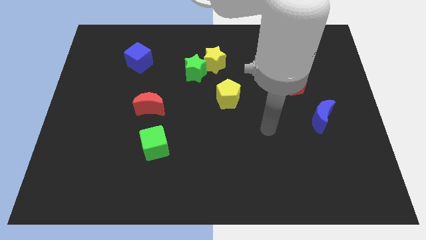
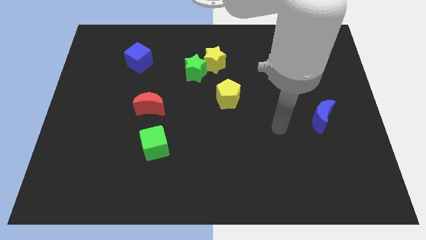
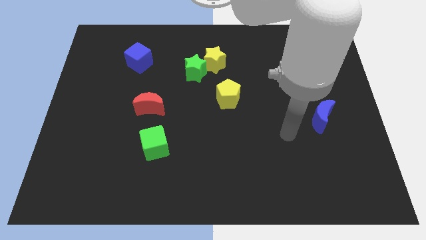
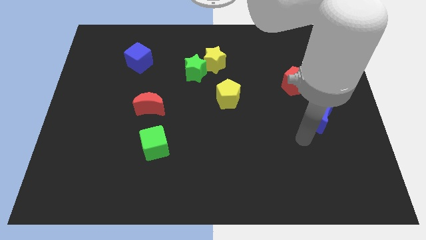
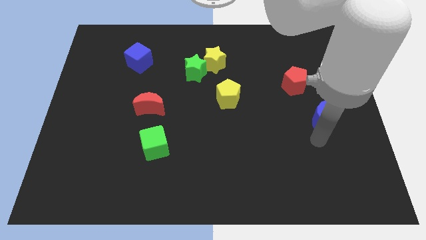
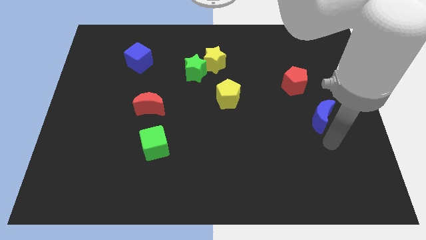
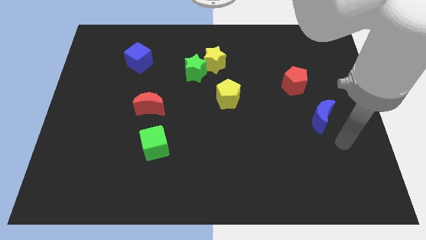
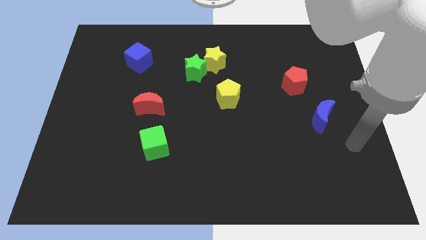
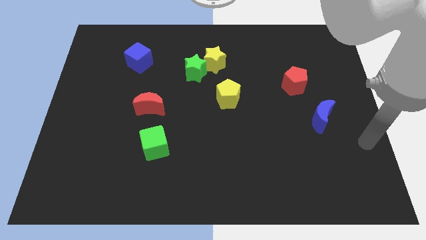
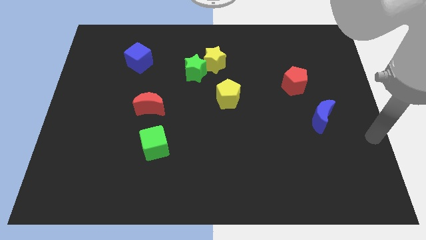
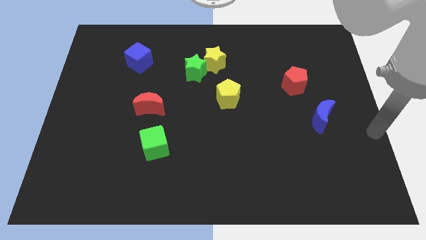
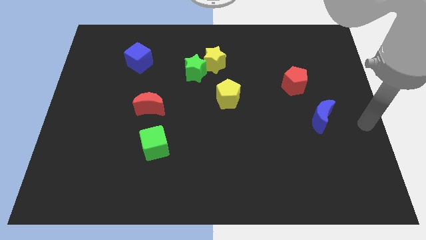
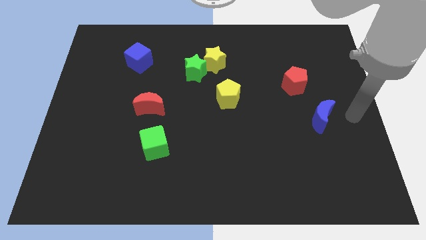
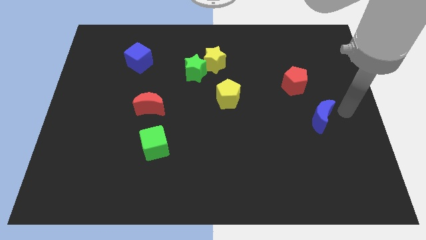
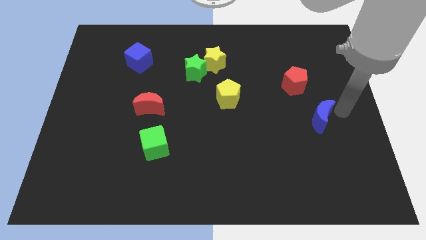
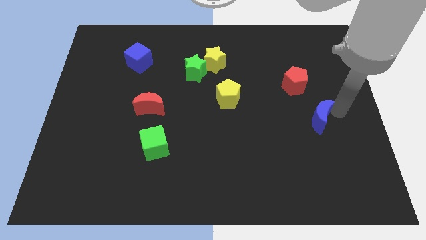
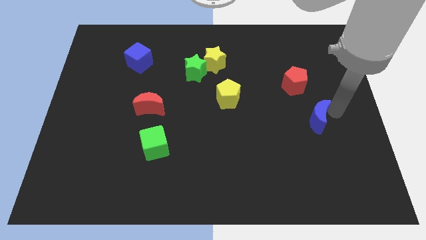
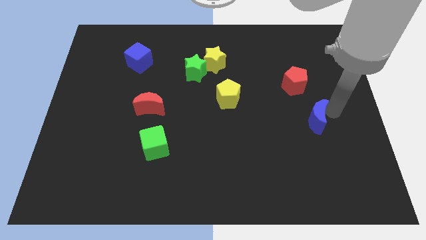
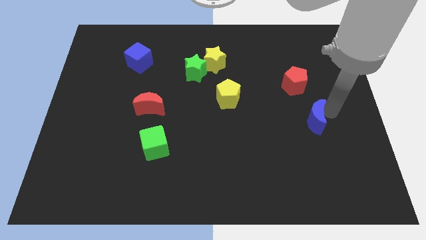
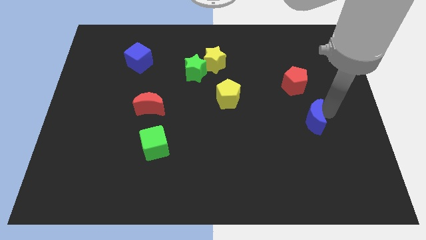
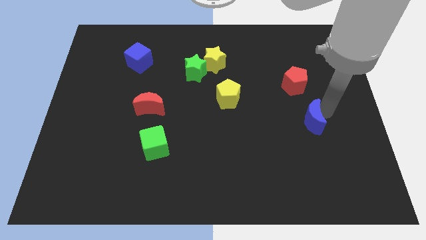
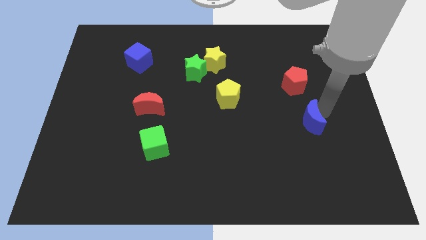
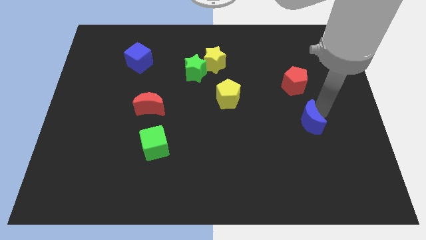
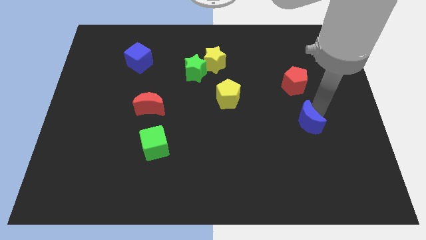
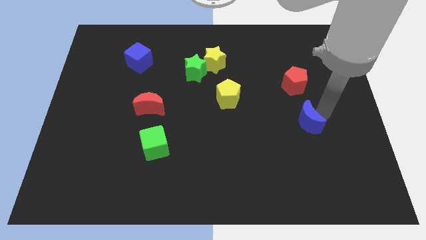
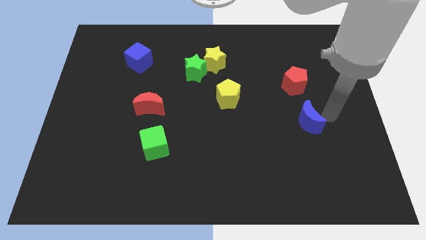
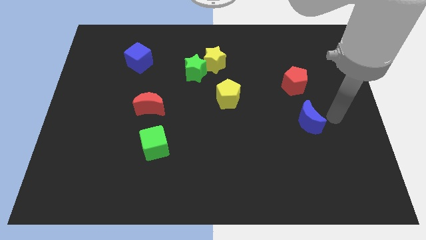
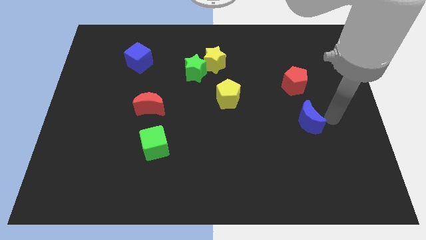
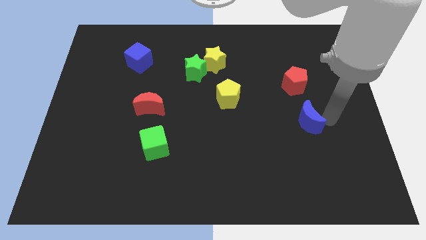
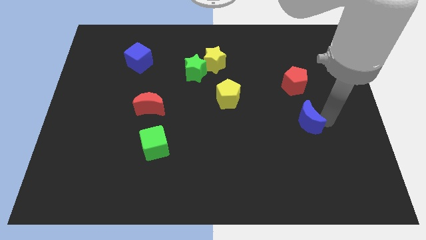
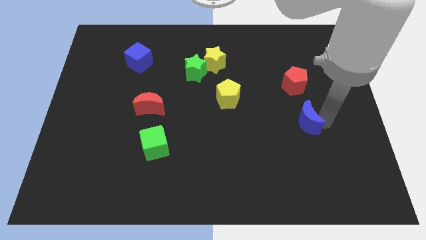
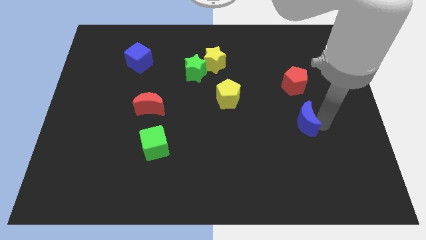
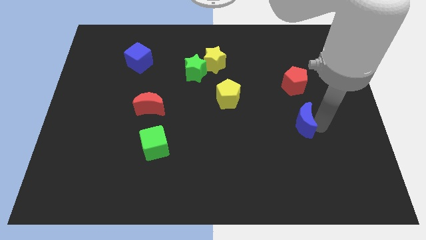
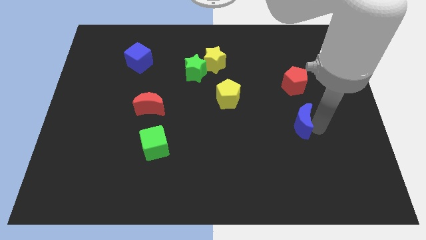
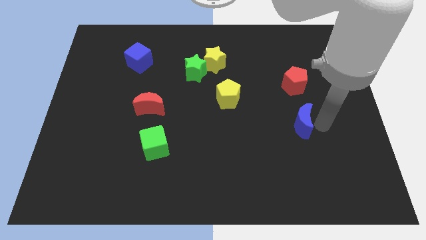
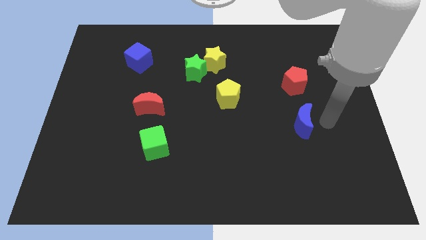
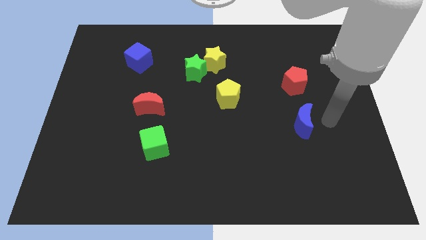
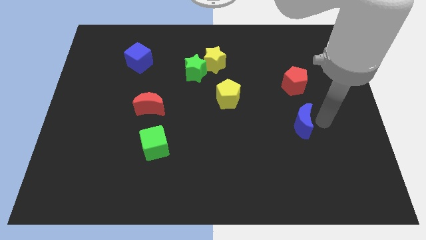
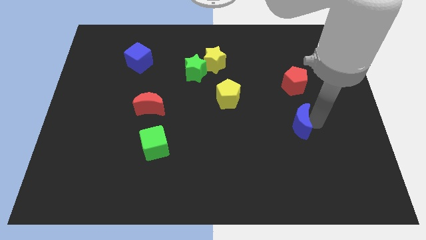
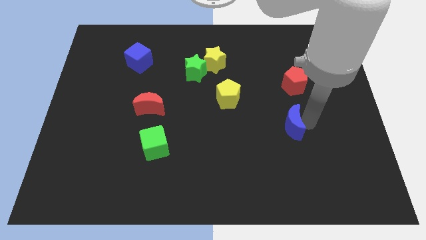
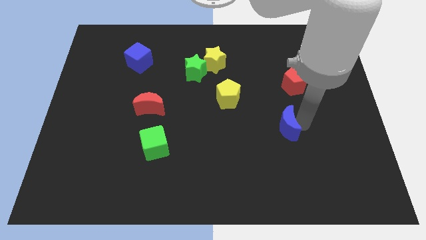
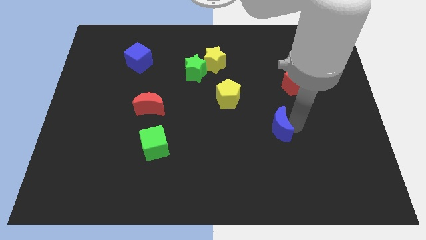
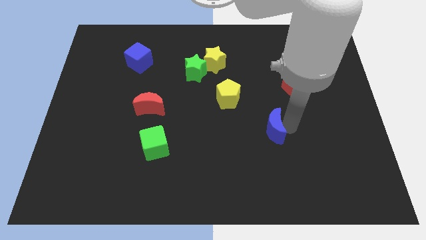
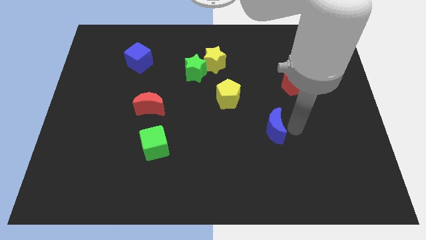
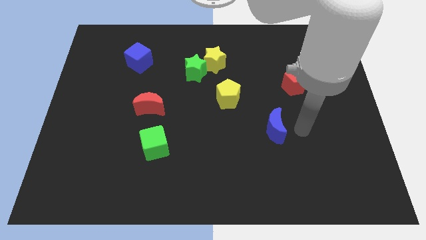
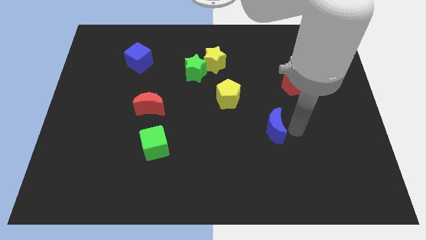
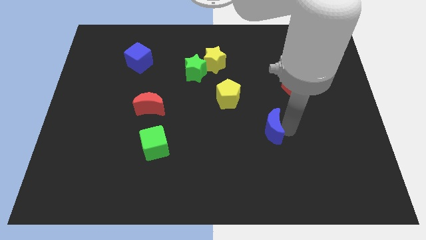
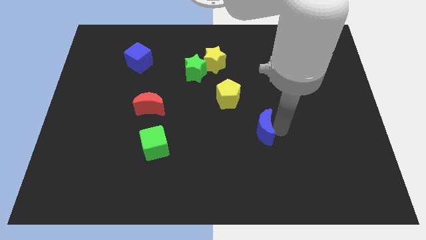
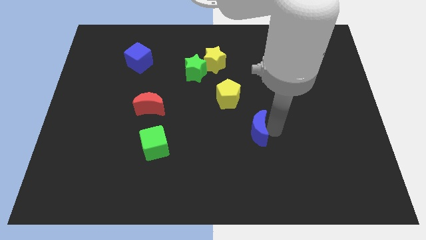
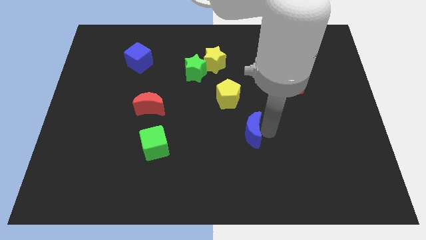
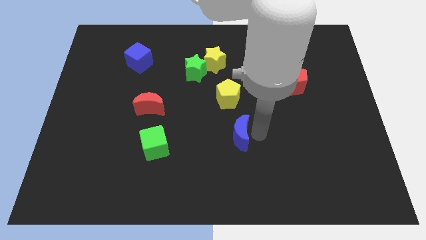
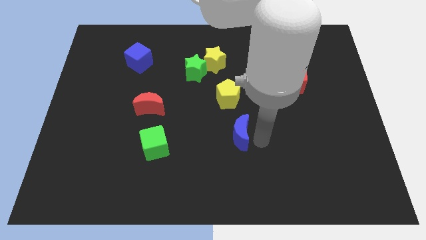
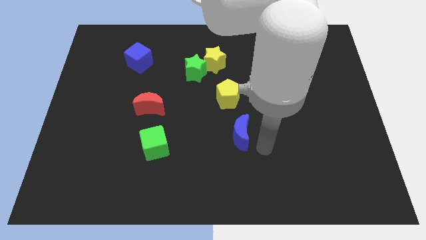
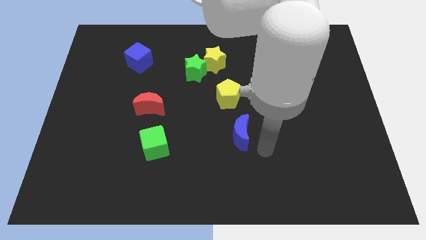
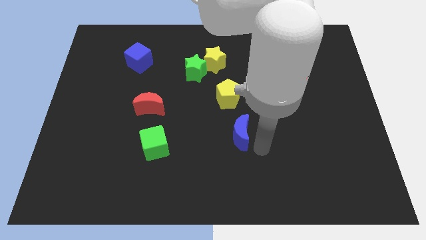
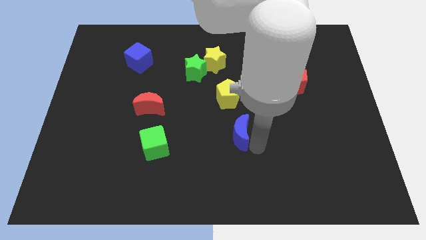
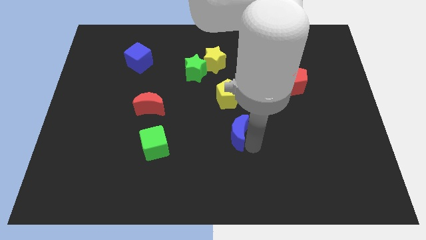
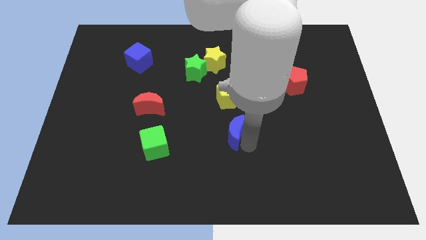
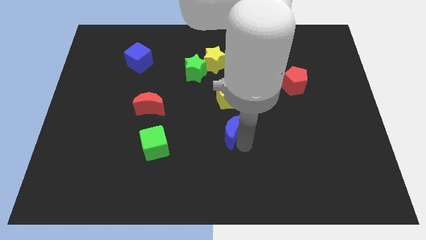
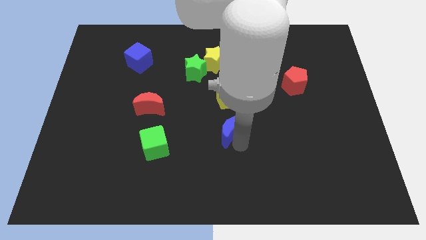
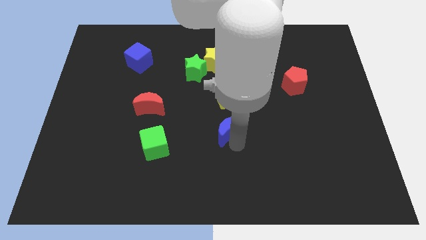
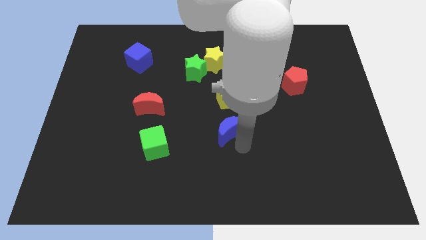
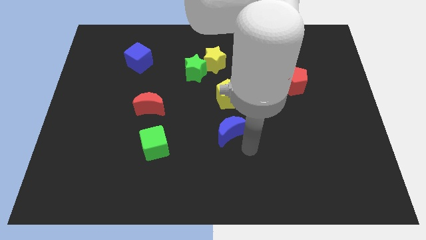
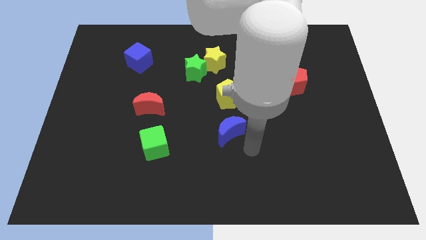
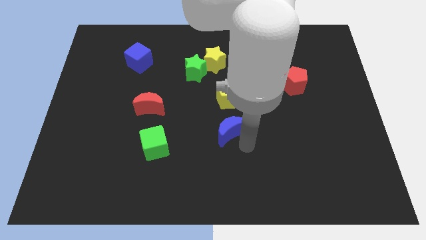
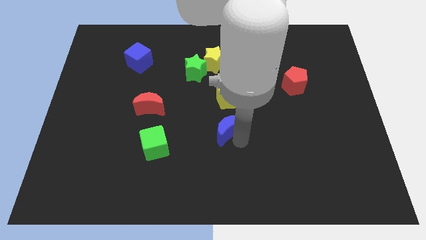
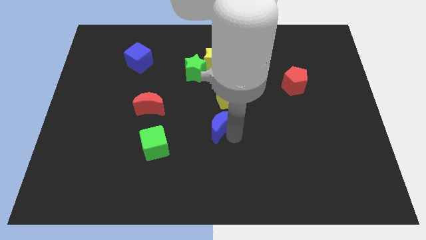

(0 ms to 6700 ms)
put the blue moon to the bottom left side of the yellow pentagon

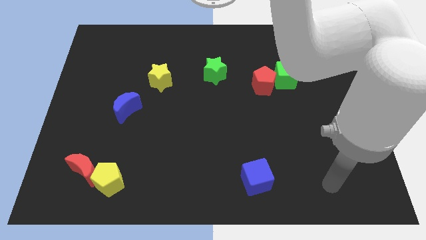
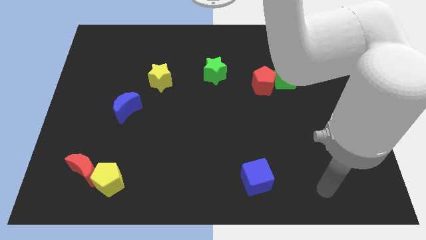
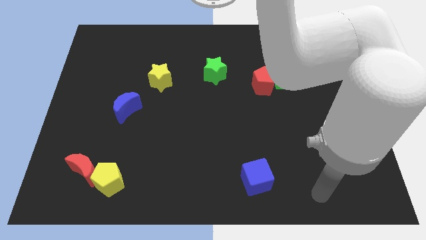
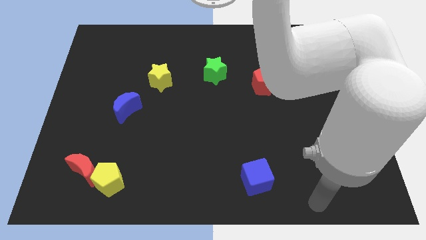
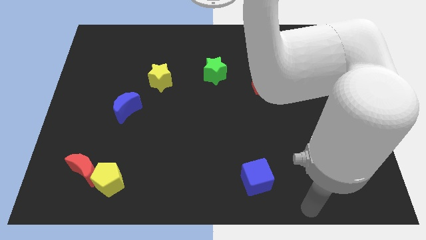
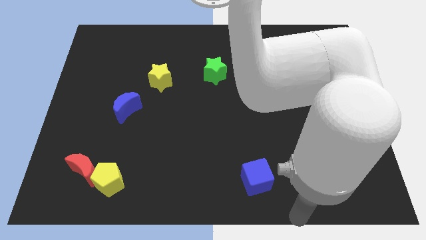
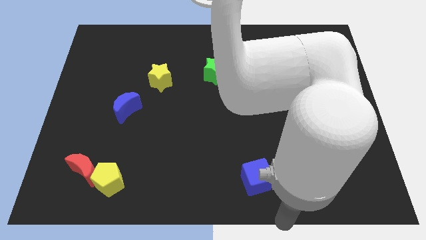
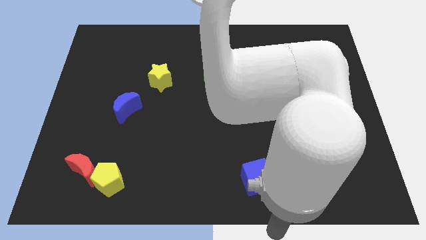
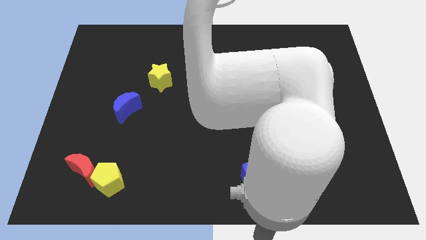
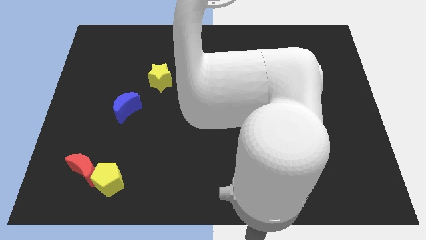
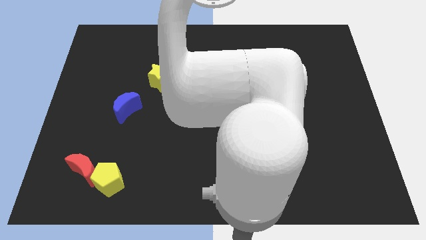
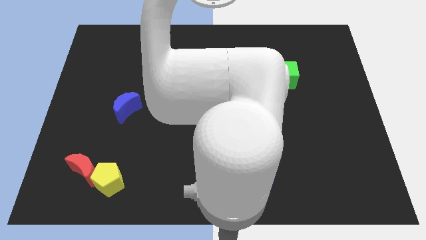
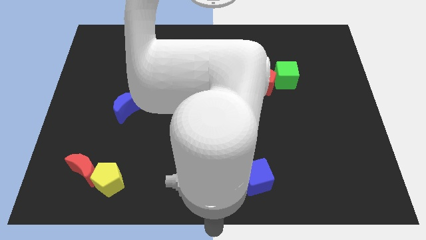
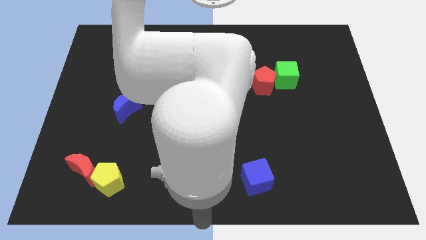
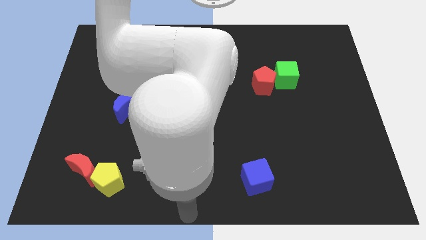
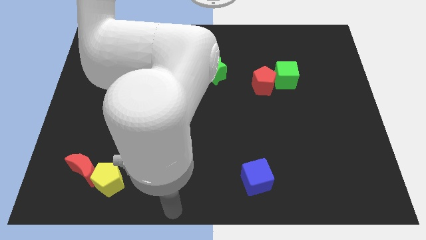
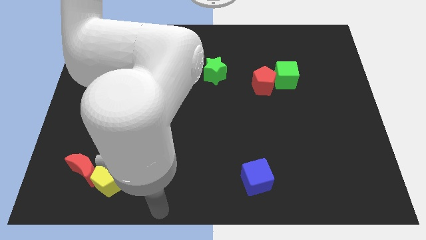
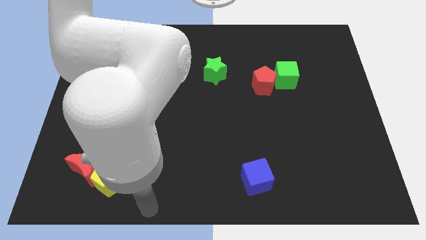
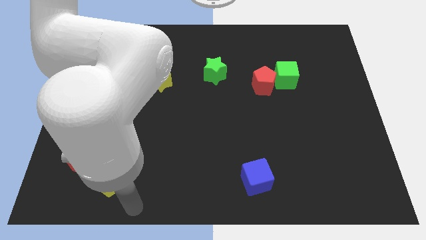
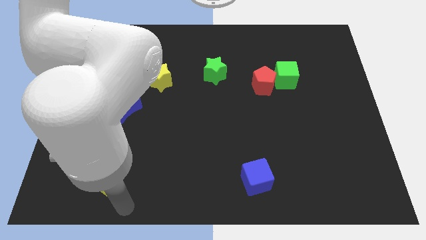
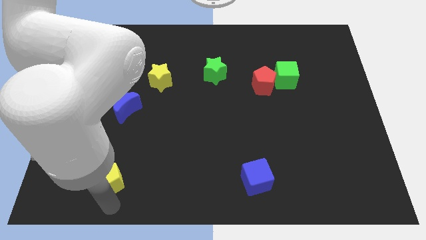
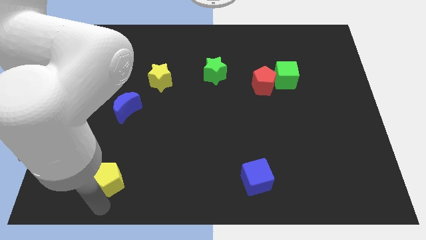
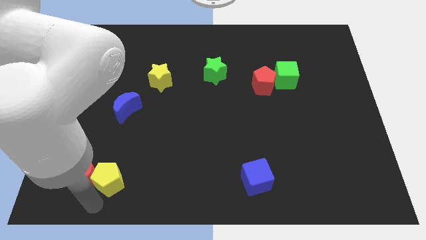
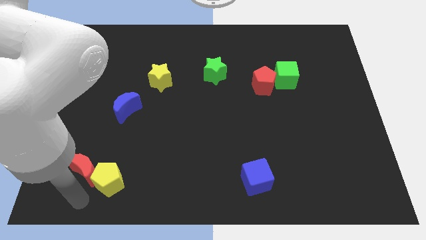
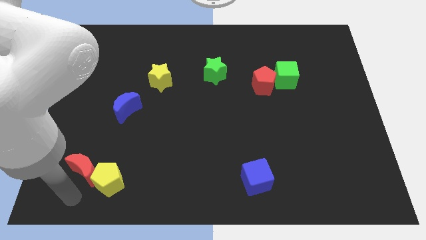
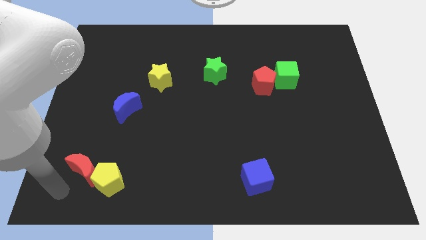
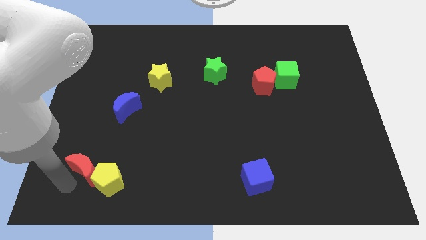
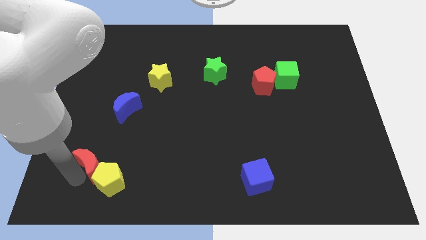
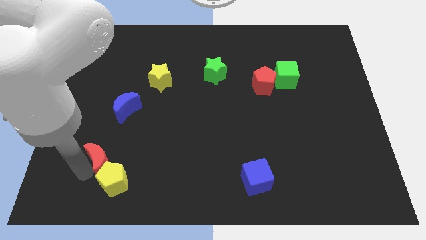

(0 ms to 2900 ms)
move the red moon below the blue moon
